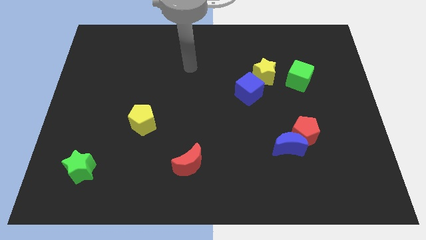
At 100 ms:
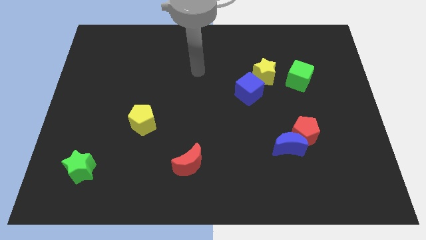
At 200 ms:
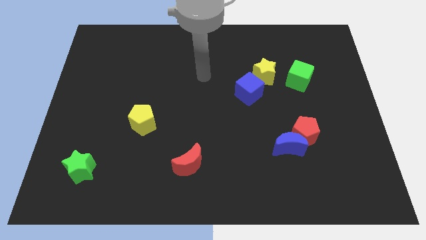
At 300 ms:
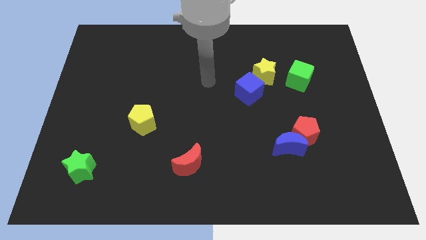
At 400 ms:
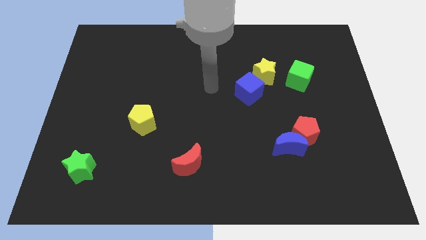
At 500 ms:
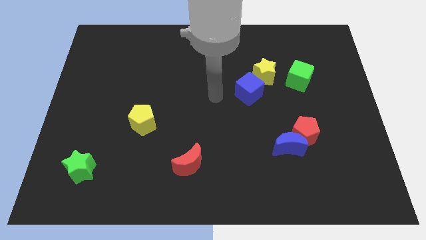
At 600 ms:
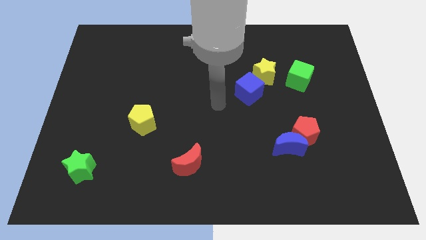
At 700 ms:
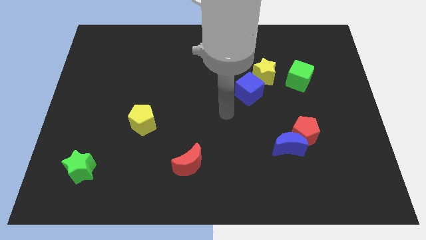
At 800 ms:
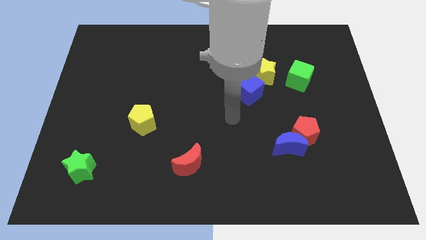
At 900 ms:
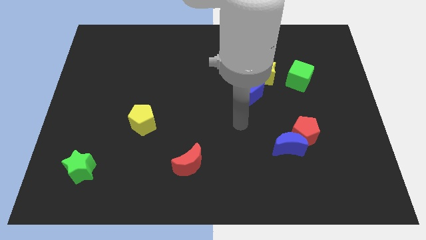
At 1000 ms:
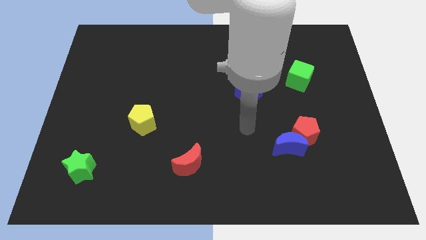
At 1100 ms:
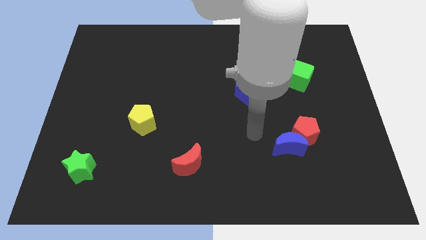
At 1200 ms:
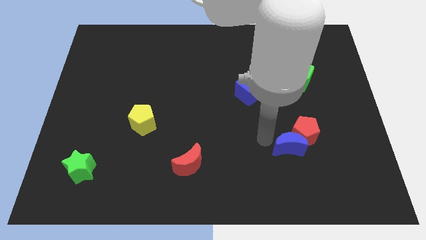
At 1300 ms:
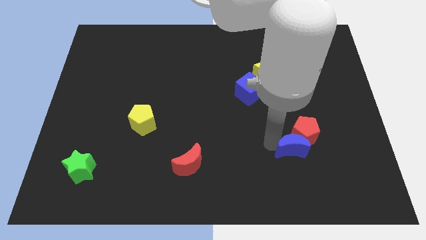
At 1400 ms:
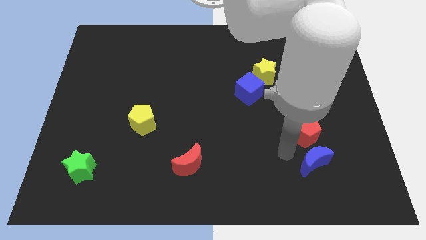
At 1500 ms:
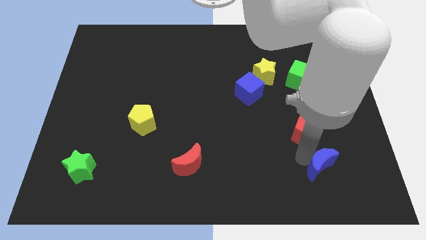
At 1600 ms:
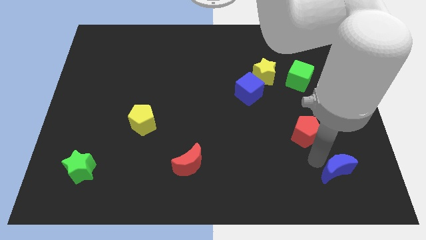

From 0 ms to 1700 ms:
move the red pentagon away from the blue moon

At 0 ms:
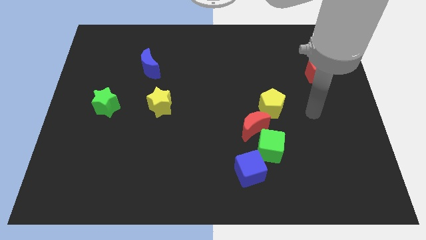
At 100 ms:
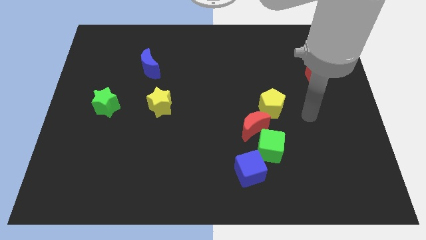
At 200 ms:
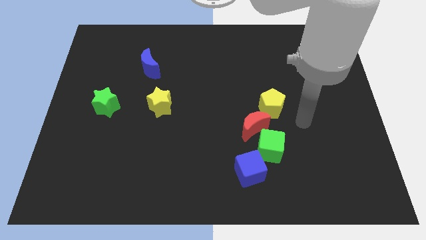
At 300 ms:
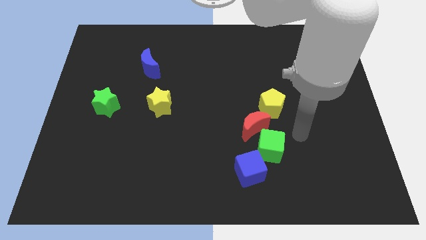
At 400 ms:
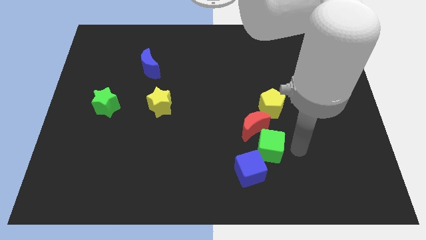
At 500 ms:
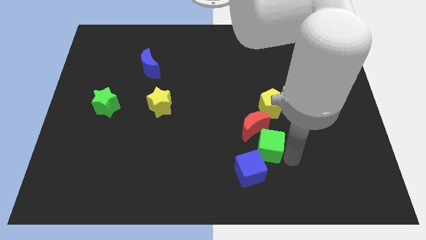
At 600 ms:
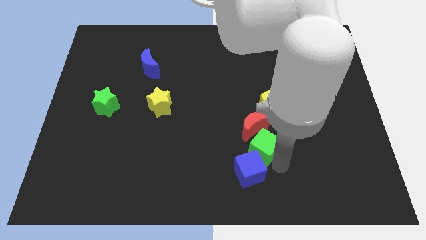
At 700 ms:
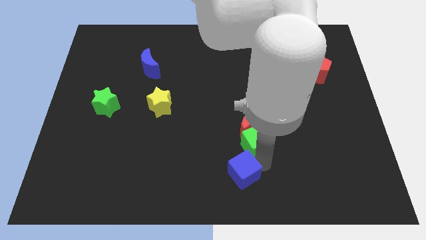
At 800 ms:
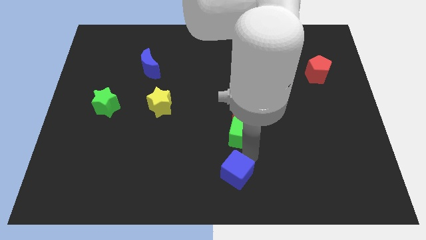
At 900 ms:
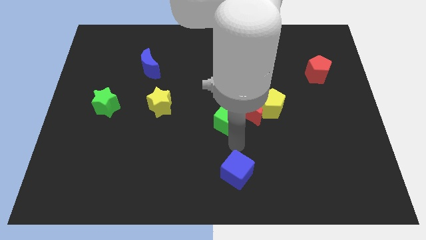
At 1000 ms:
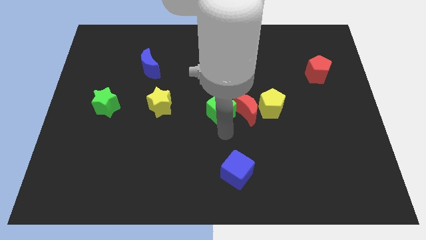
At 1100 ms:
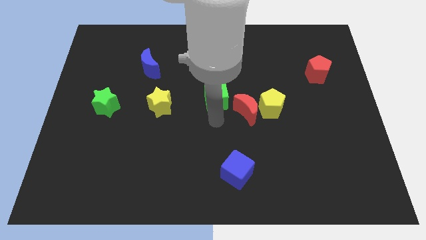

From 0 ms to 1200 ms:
pull the green cube apart from the red moon and blue cube

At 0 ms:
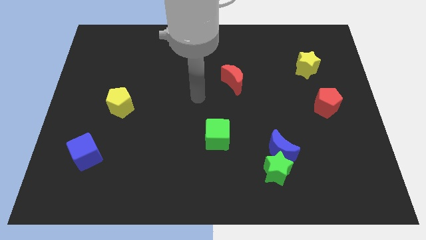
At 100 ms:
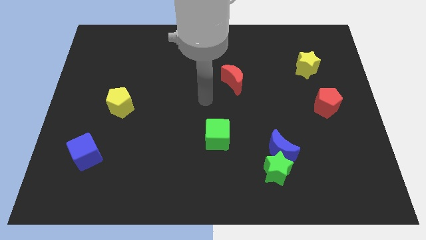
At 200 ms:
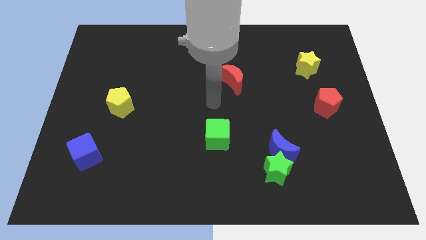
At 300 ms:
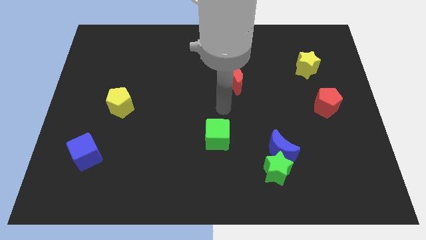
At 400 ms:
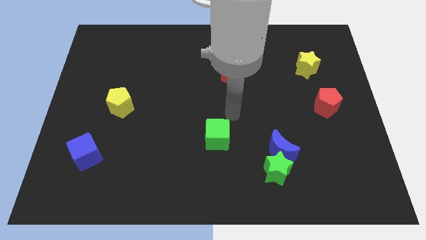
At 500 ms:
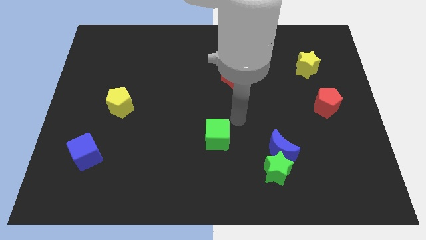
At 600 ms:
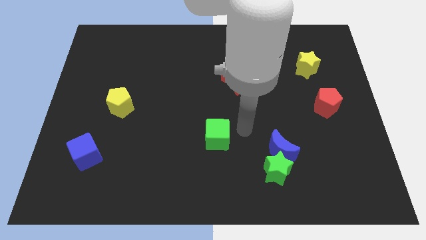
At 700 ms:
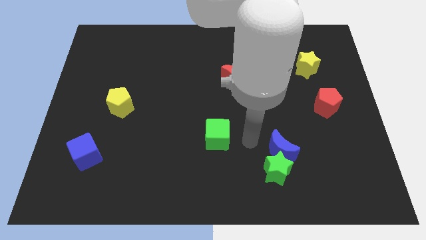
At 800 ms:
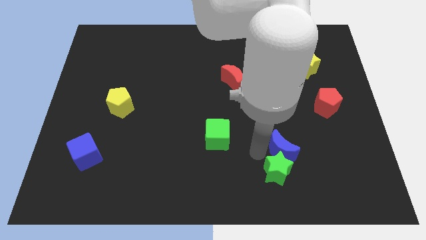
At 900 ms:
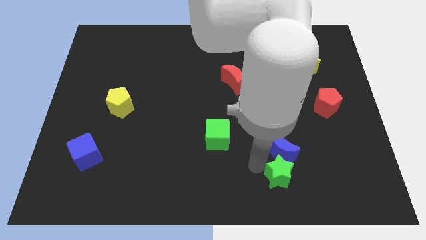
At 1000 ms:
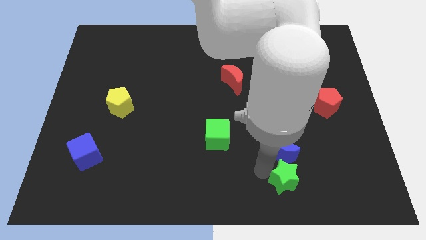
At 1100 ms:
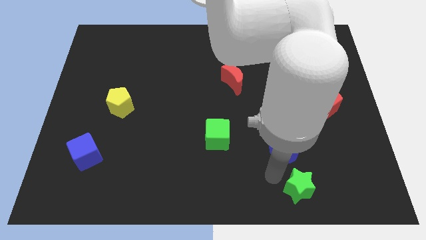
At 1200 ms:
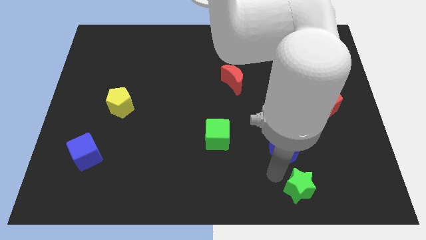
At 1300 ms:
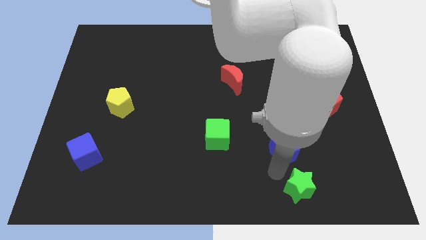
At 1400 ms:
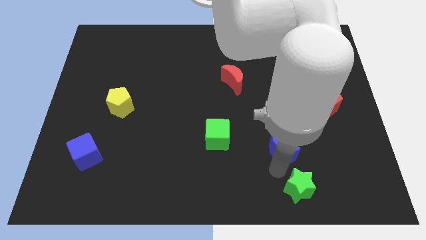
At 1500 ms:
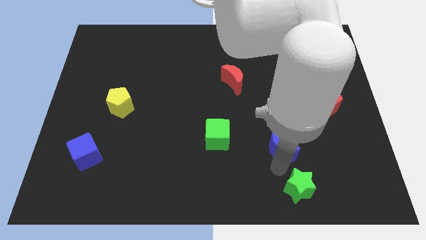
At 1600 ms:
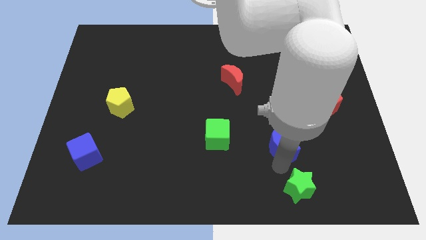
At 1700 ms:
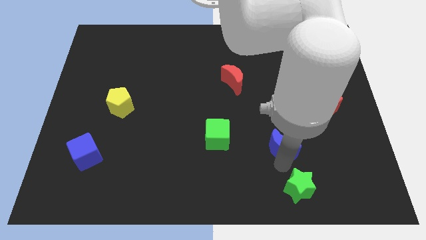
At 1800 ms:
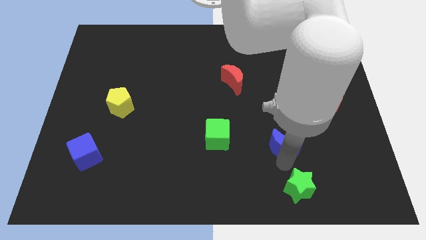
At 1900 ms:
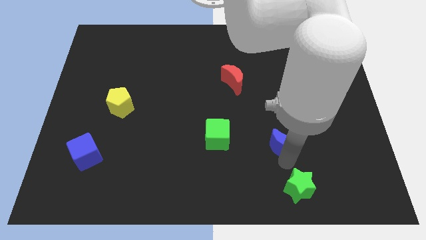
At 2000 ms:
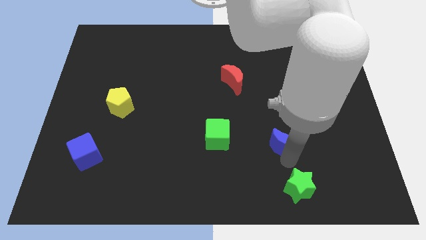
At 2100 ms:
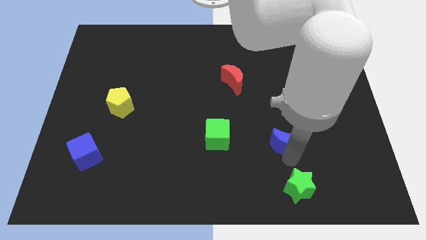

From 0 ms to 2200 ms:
separate the blue moon from the green star

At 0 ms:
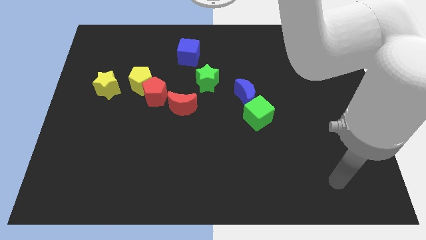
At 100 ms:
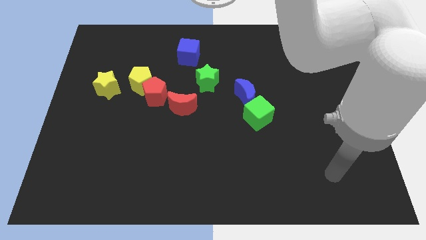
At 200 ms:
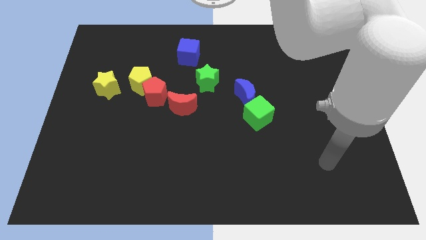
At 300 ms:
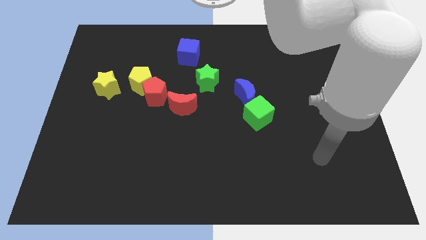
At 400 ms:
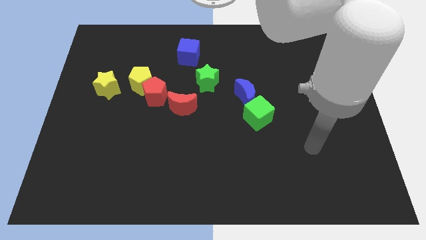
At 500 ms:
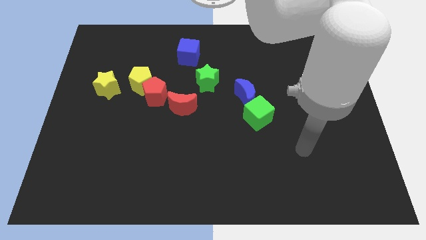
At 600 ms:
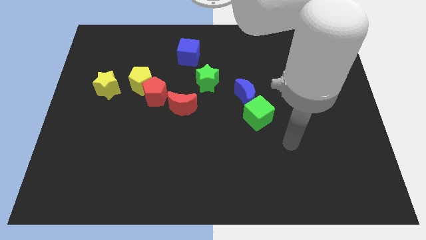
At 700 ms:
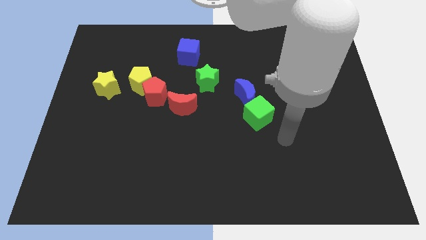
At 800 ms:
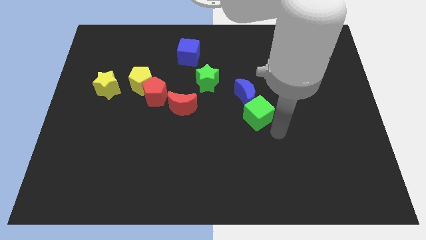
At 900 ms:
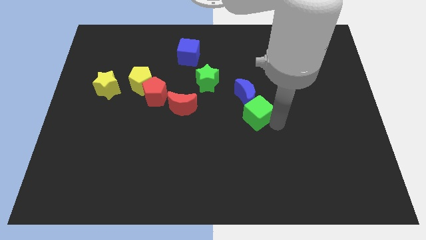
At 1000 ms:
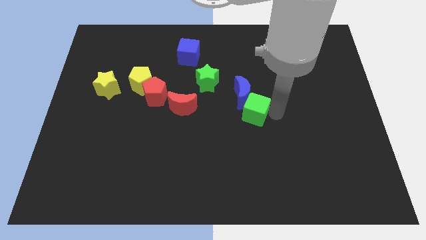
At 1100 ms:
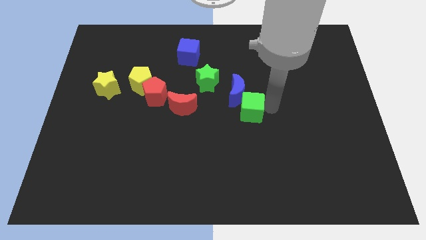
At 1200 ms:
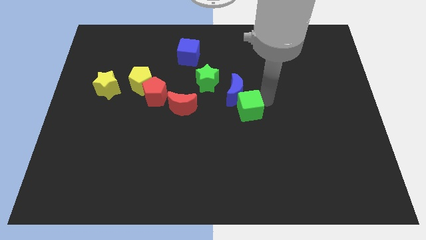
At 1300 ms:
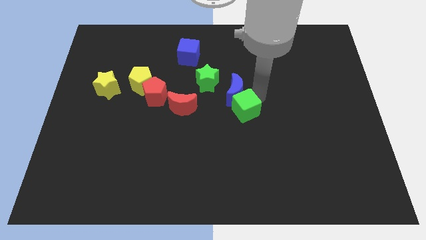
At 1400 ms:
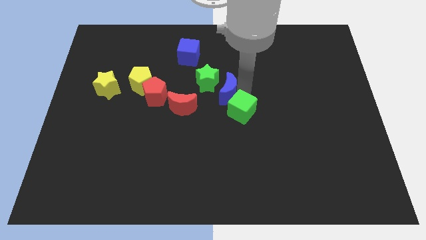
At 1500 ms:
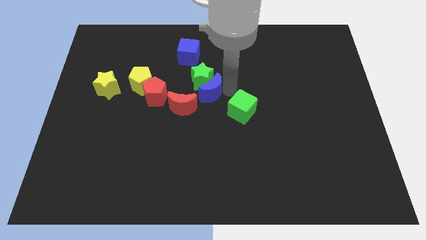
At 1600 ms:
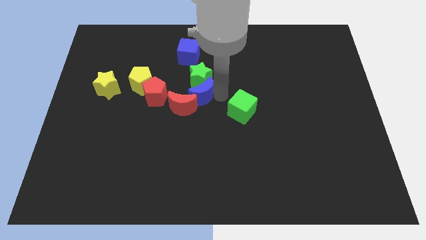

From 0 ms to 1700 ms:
separate the green cube from the blue moon

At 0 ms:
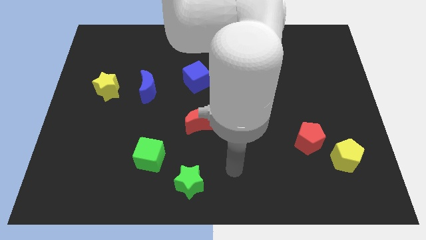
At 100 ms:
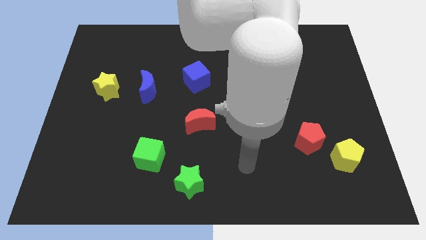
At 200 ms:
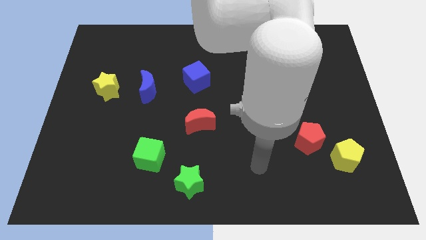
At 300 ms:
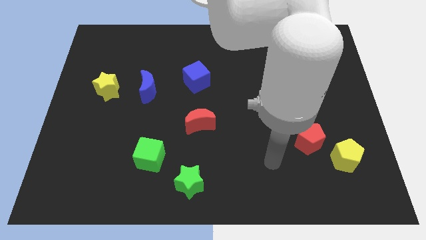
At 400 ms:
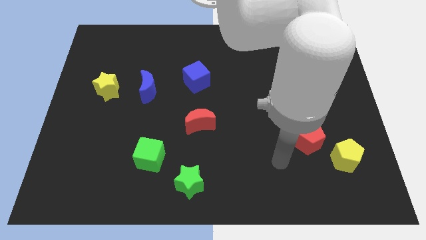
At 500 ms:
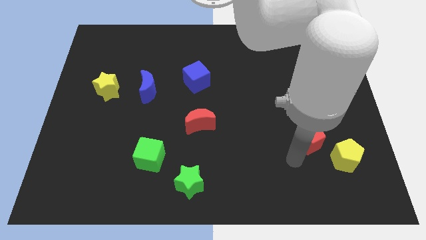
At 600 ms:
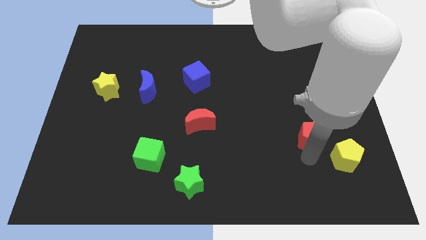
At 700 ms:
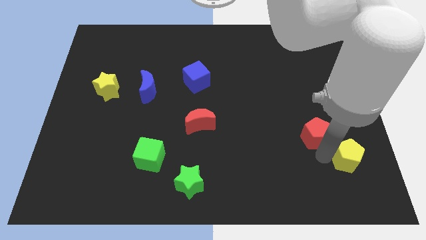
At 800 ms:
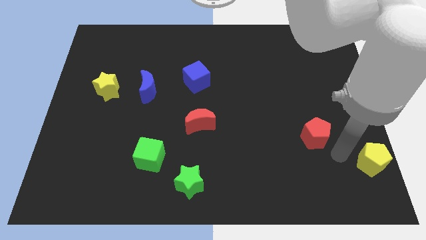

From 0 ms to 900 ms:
pull the red pentagon apart from the yellow pentagon

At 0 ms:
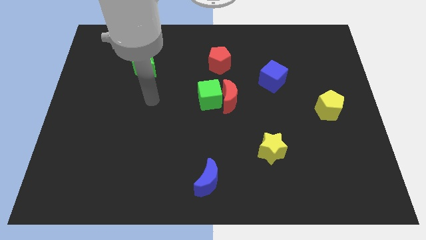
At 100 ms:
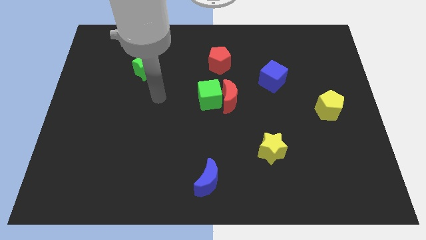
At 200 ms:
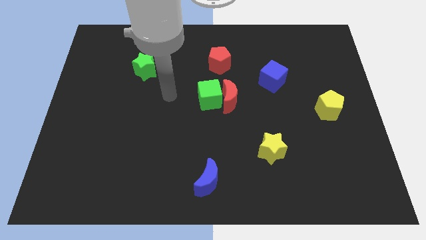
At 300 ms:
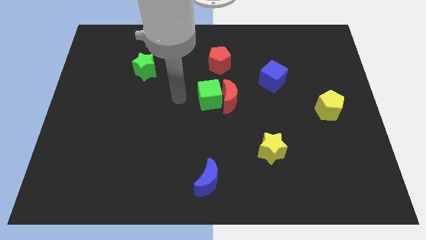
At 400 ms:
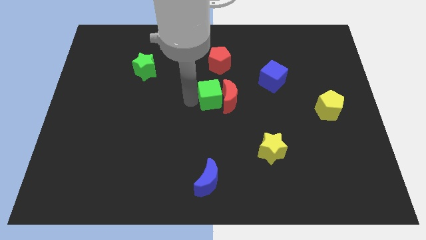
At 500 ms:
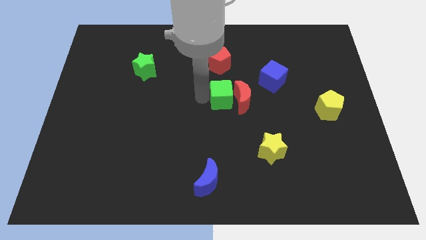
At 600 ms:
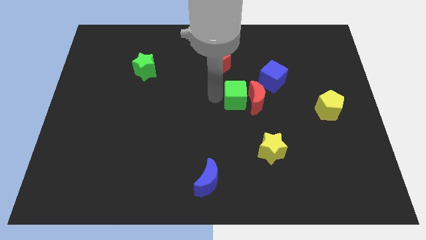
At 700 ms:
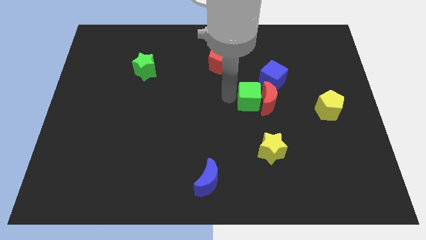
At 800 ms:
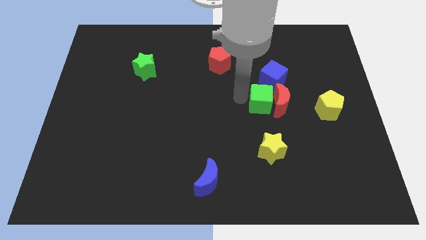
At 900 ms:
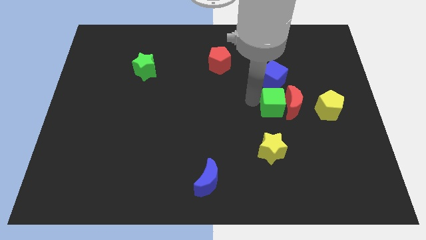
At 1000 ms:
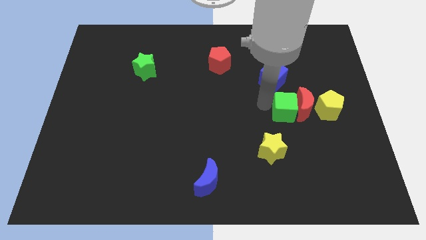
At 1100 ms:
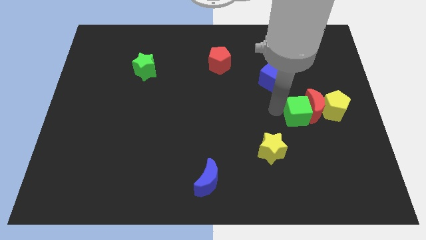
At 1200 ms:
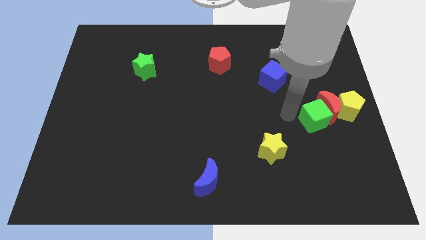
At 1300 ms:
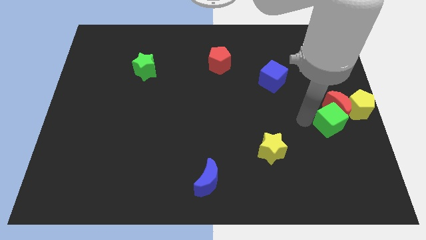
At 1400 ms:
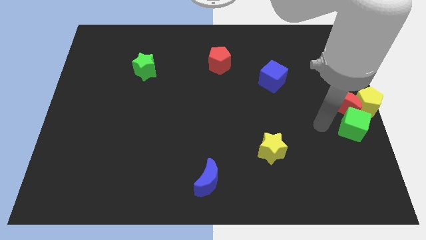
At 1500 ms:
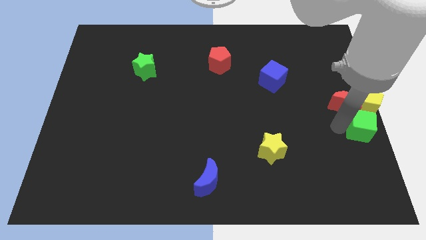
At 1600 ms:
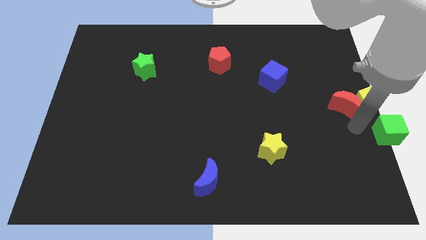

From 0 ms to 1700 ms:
separate the red moon from the green cube
